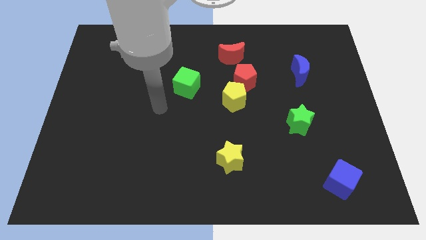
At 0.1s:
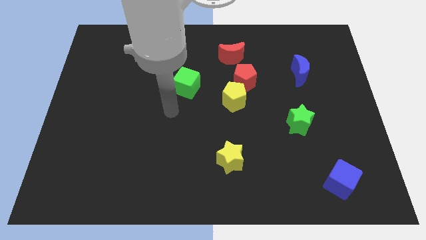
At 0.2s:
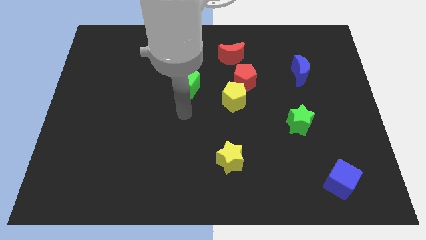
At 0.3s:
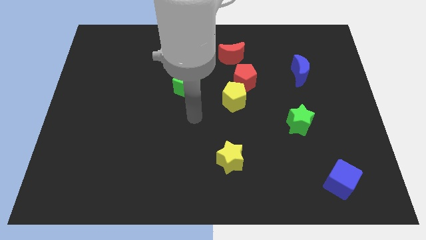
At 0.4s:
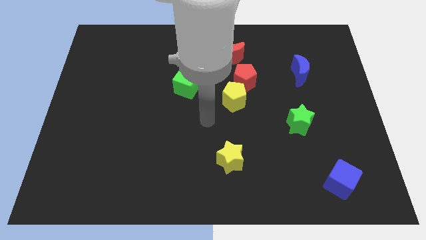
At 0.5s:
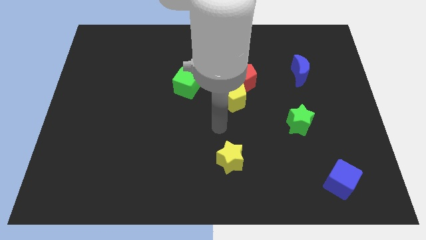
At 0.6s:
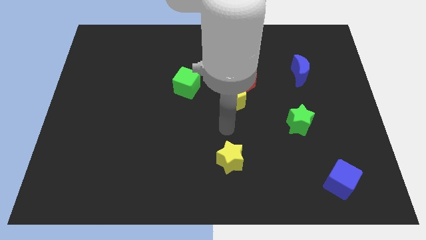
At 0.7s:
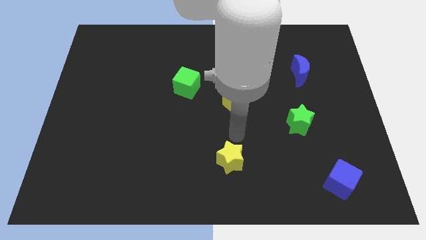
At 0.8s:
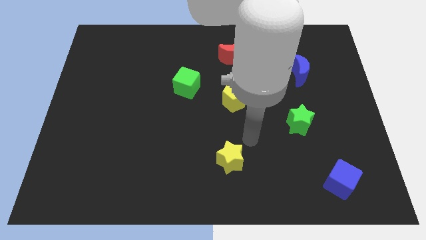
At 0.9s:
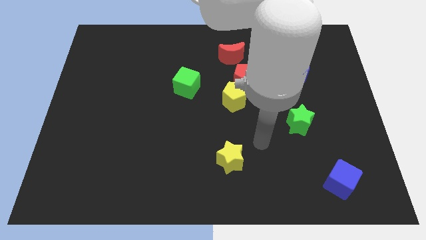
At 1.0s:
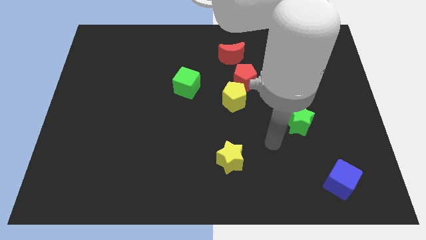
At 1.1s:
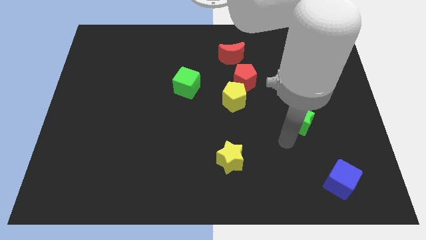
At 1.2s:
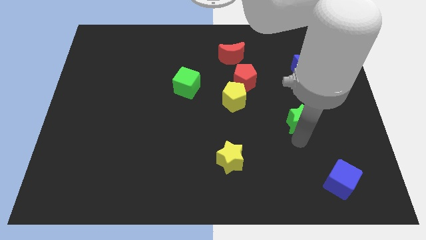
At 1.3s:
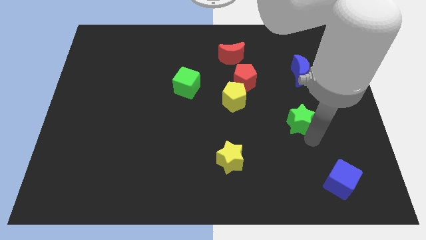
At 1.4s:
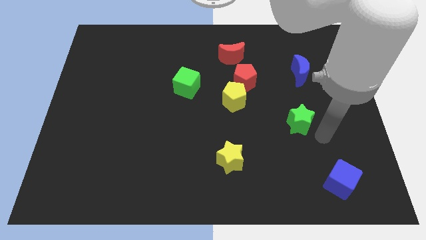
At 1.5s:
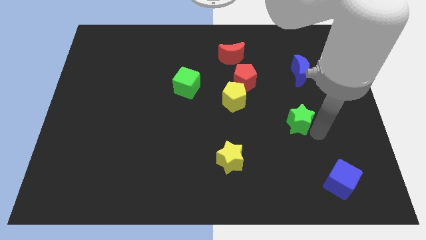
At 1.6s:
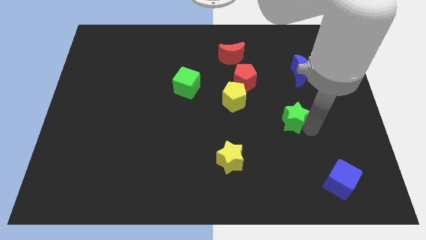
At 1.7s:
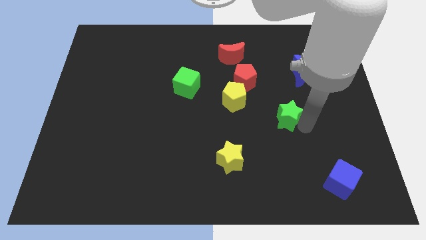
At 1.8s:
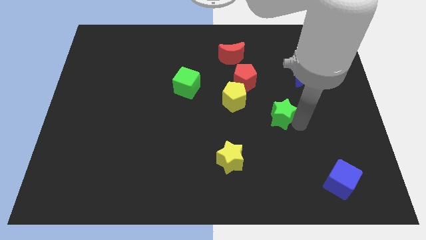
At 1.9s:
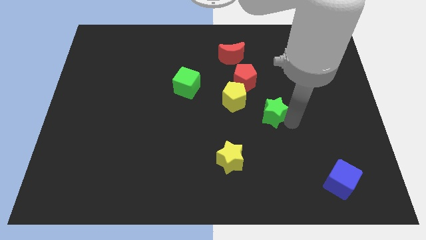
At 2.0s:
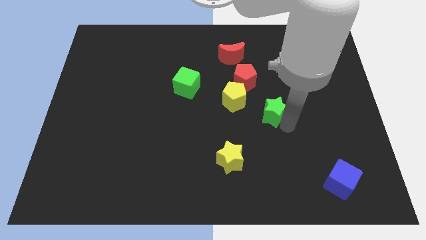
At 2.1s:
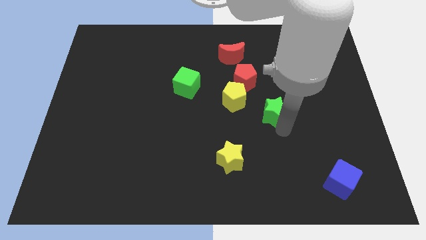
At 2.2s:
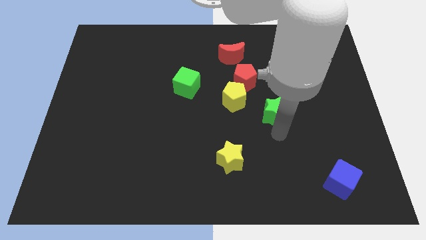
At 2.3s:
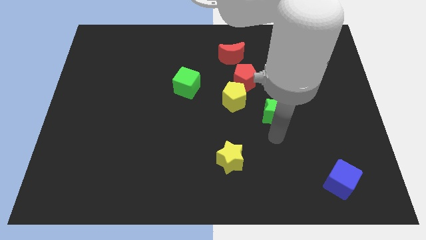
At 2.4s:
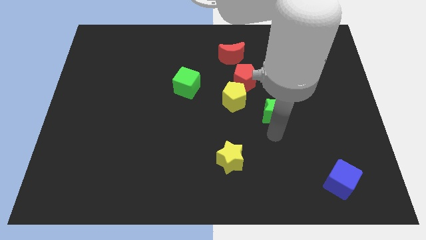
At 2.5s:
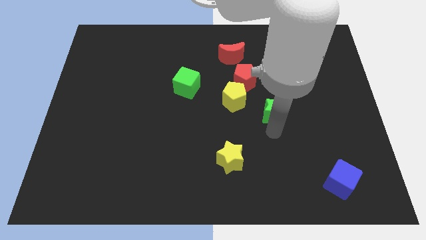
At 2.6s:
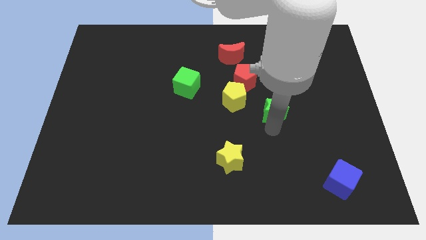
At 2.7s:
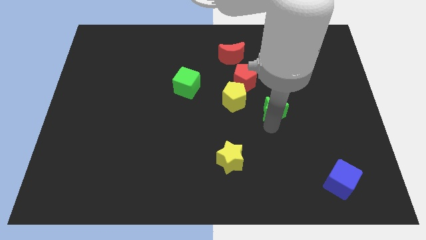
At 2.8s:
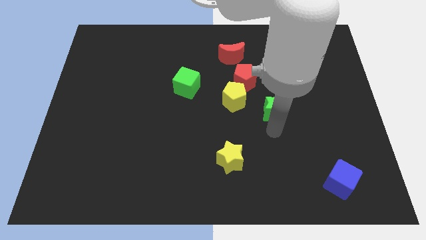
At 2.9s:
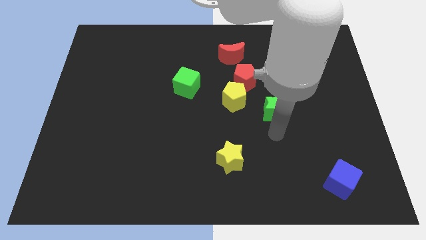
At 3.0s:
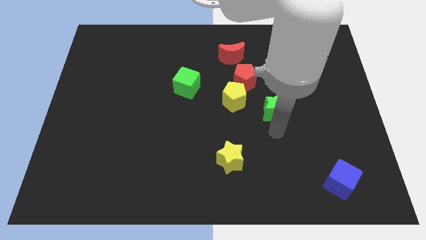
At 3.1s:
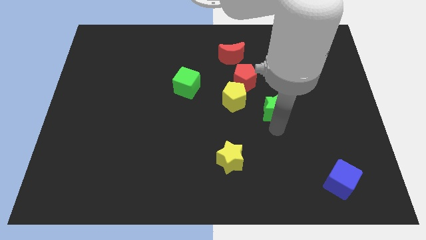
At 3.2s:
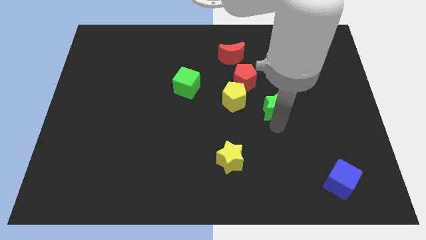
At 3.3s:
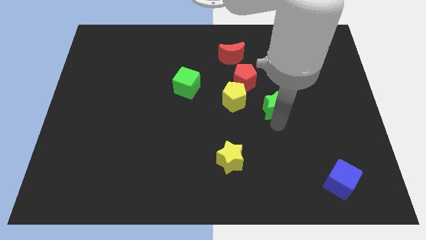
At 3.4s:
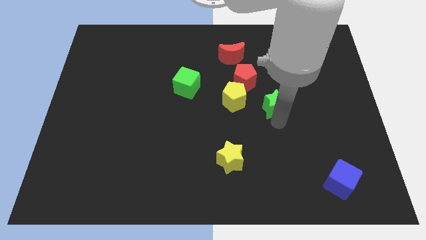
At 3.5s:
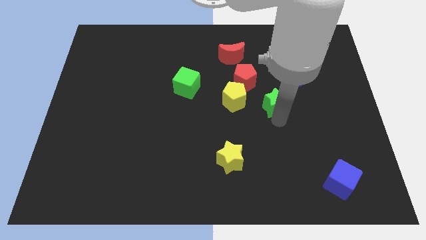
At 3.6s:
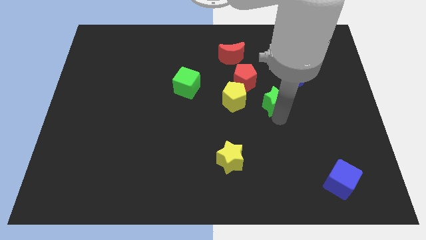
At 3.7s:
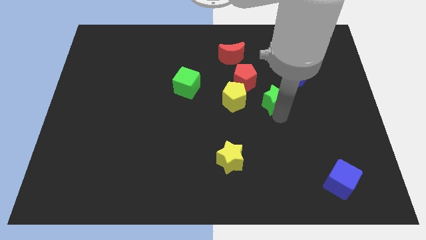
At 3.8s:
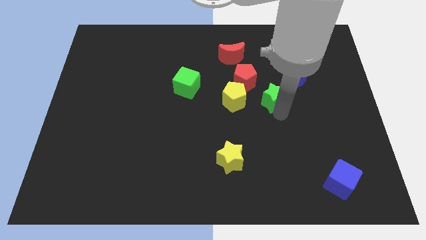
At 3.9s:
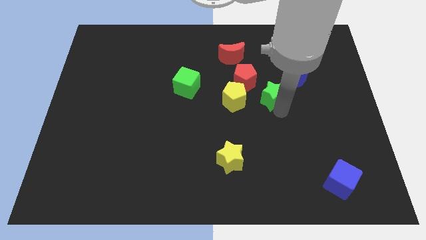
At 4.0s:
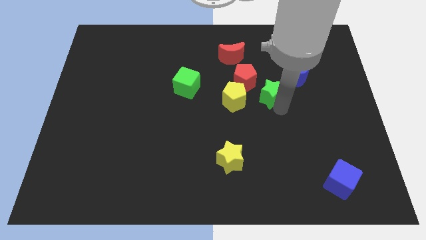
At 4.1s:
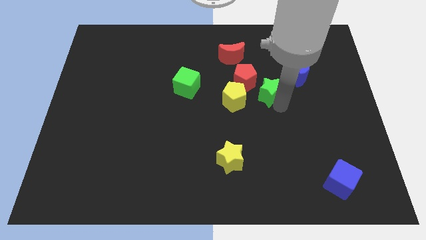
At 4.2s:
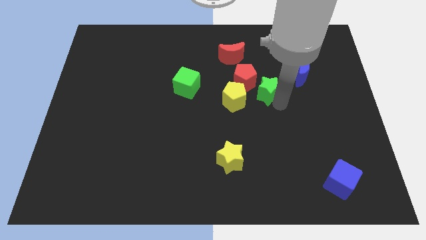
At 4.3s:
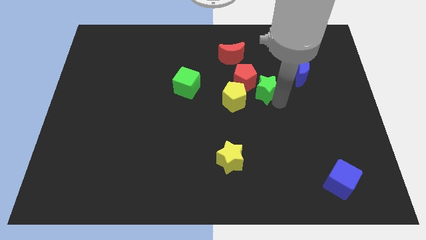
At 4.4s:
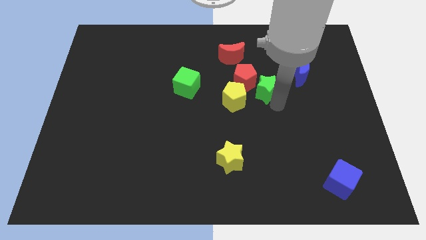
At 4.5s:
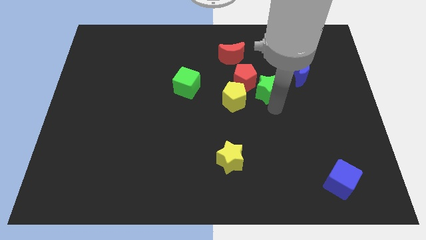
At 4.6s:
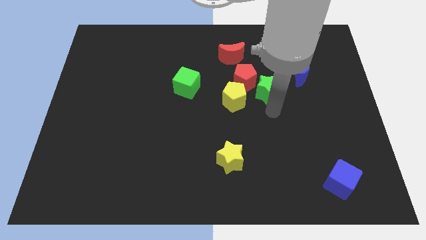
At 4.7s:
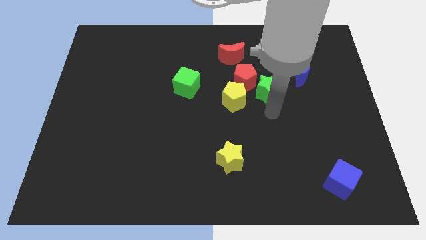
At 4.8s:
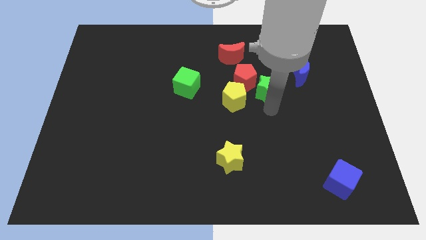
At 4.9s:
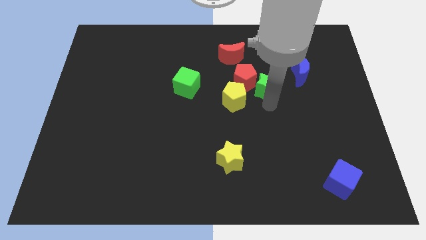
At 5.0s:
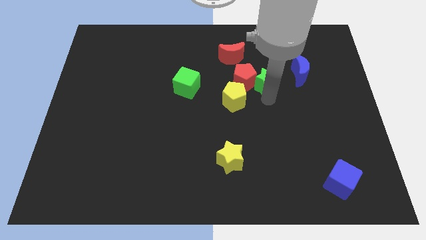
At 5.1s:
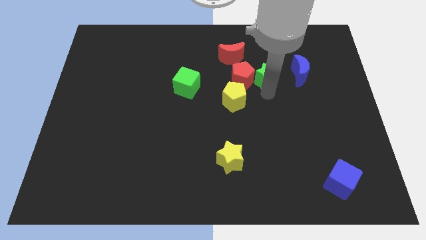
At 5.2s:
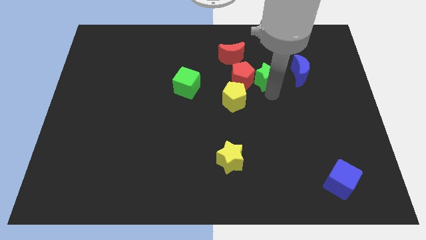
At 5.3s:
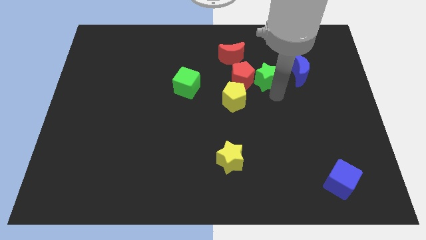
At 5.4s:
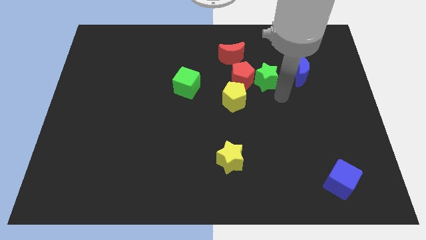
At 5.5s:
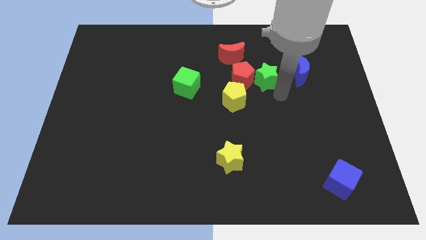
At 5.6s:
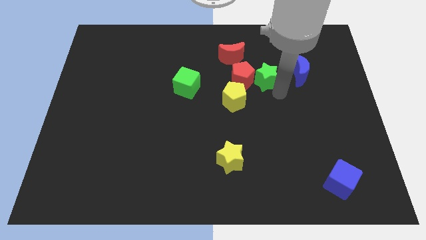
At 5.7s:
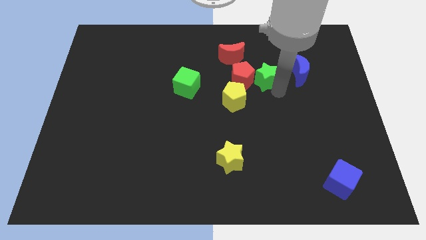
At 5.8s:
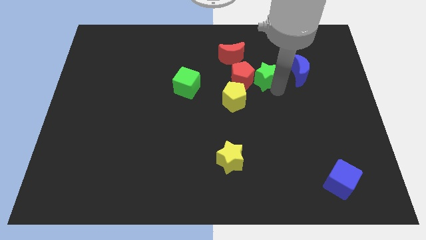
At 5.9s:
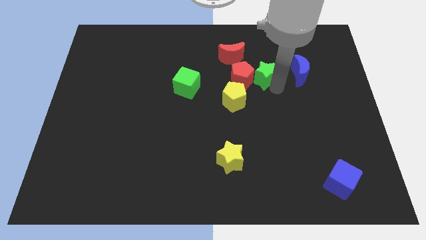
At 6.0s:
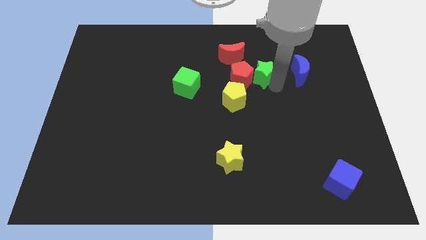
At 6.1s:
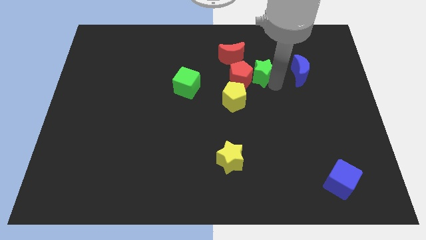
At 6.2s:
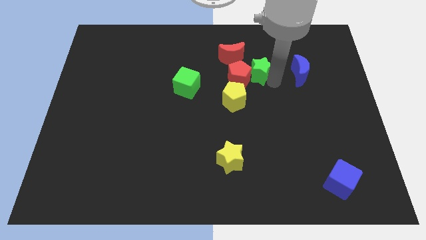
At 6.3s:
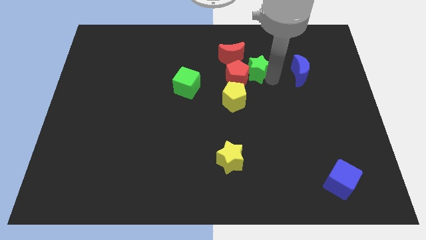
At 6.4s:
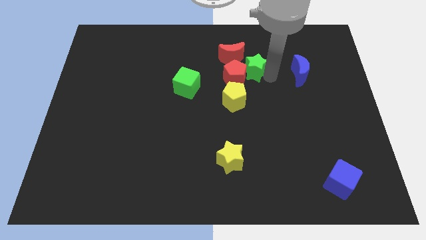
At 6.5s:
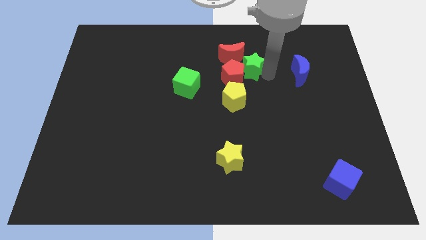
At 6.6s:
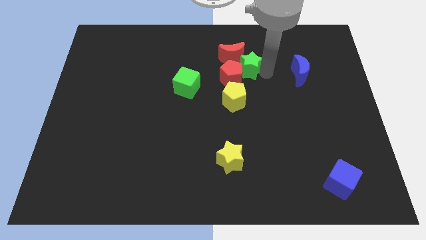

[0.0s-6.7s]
move the green star close to the red moon
